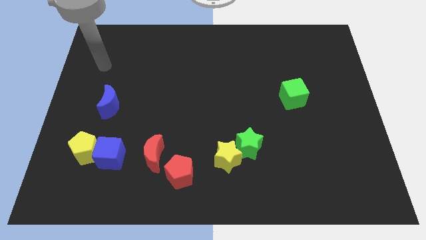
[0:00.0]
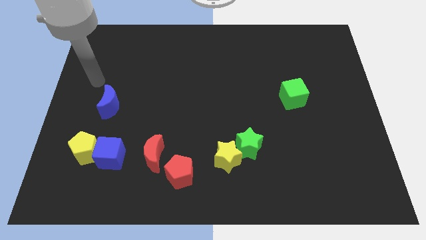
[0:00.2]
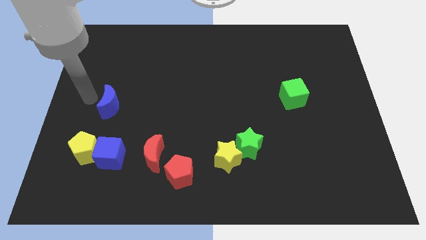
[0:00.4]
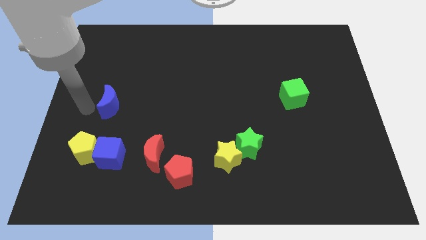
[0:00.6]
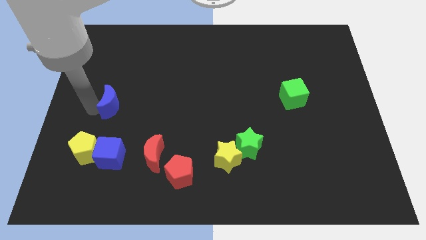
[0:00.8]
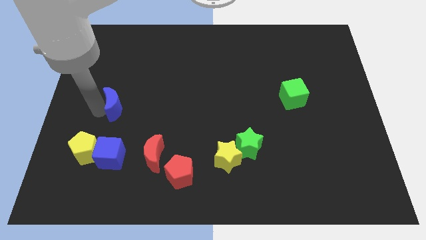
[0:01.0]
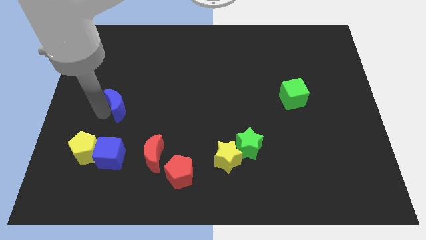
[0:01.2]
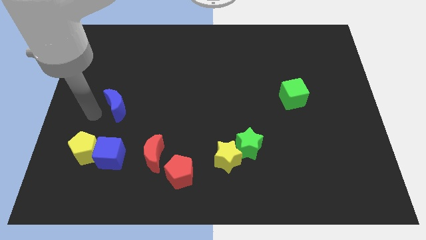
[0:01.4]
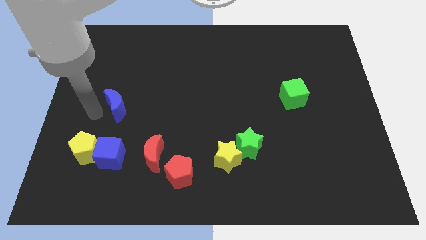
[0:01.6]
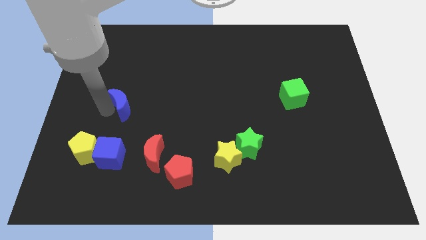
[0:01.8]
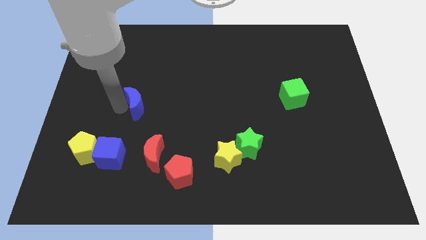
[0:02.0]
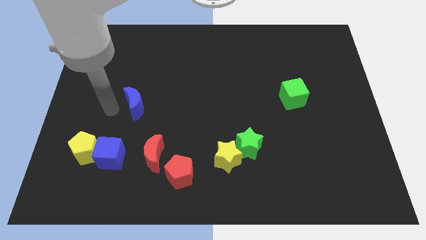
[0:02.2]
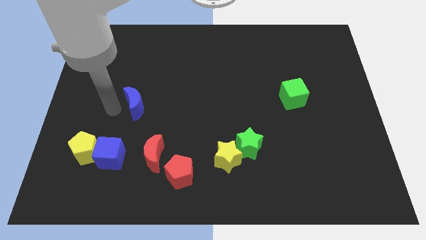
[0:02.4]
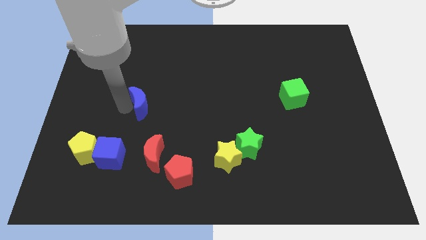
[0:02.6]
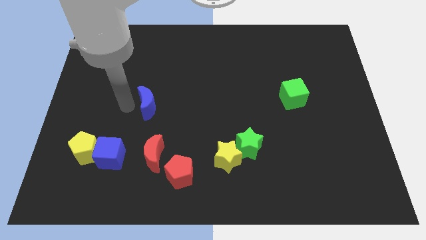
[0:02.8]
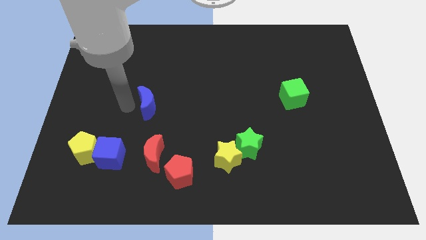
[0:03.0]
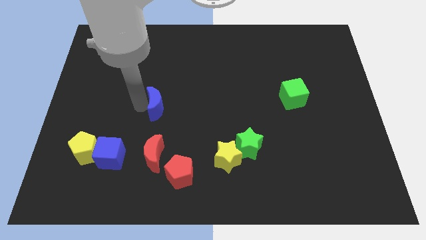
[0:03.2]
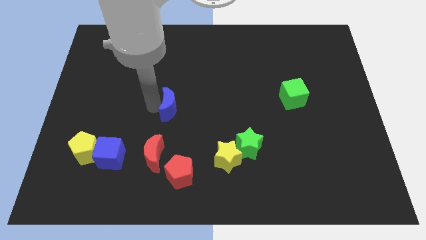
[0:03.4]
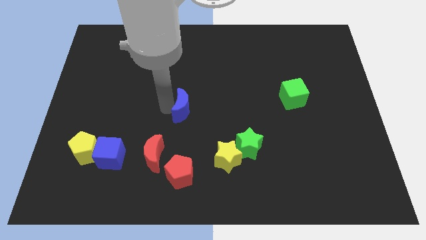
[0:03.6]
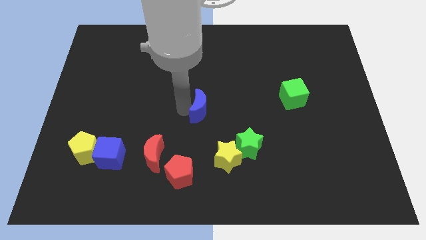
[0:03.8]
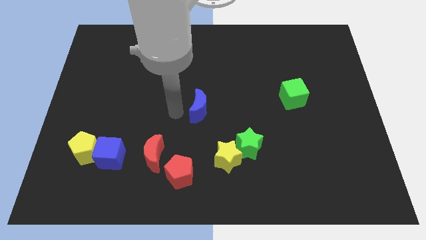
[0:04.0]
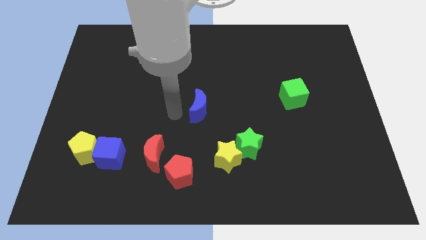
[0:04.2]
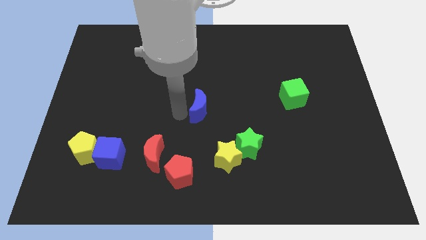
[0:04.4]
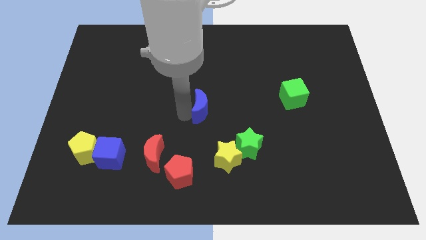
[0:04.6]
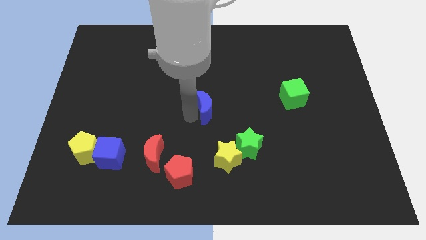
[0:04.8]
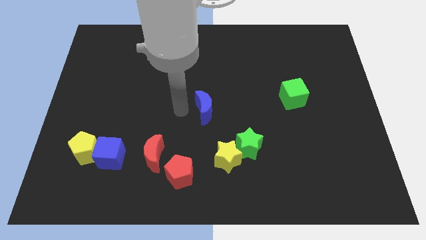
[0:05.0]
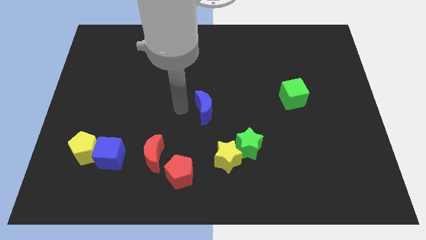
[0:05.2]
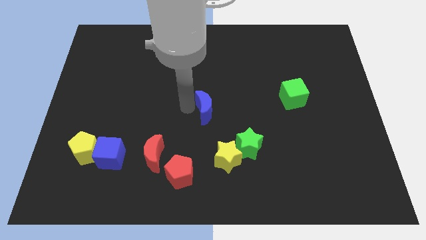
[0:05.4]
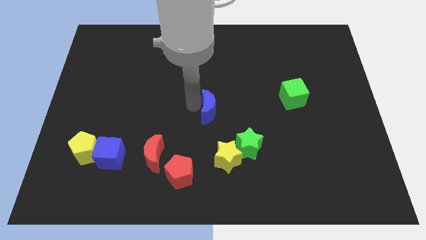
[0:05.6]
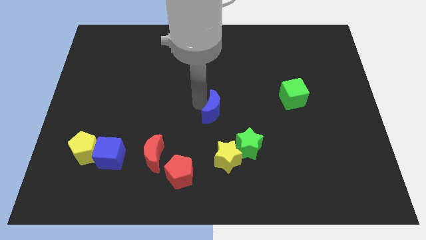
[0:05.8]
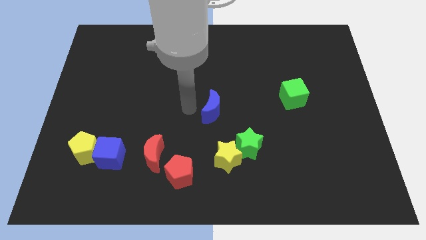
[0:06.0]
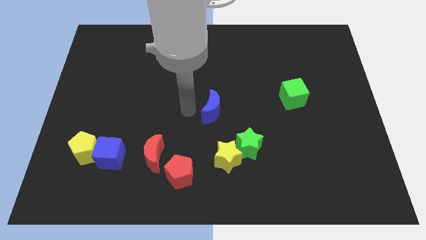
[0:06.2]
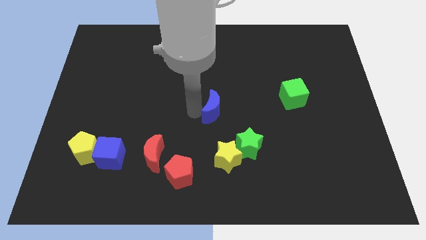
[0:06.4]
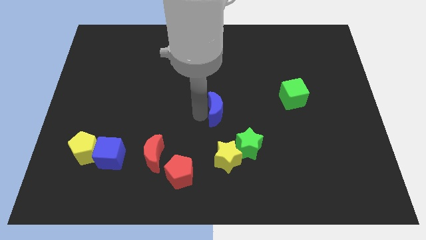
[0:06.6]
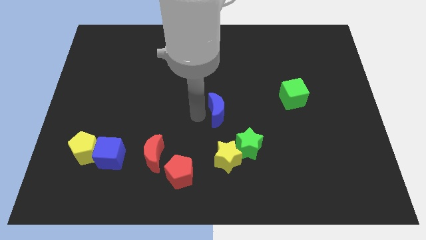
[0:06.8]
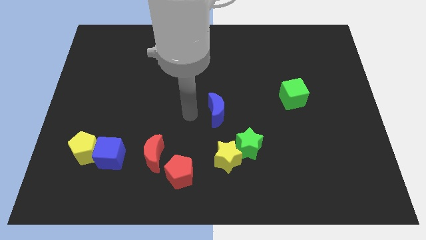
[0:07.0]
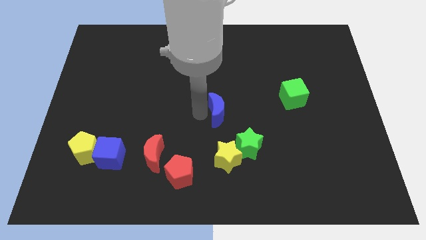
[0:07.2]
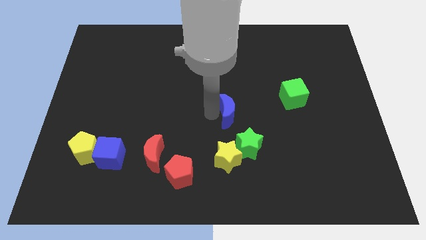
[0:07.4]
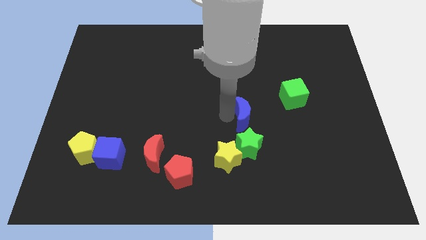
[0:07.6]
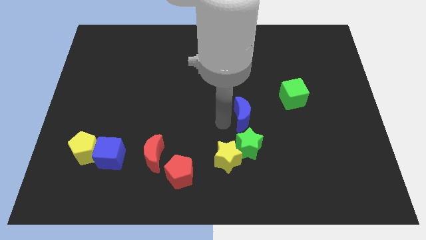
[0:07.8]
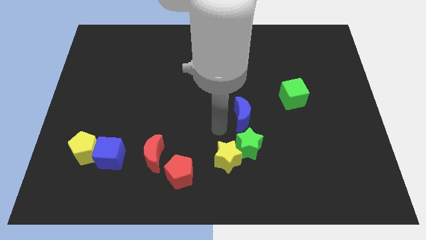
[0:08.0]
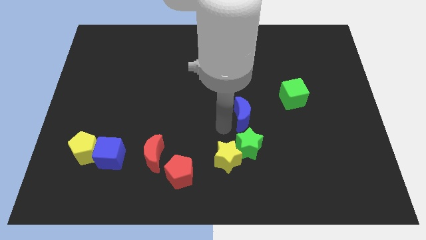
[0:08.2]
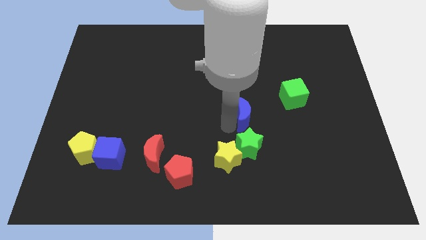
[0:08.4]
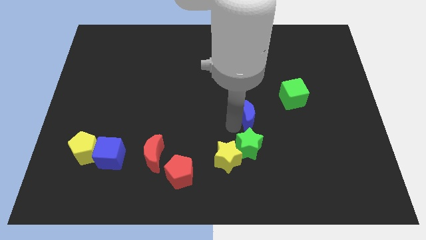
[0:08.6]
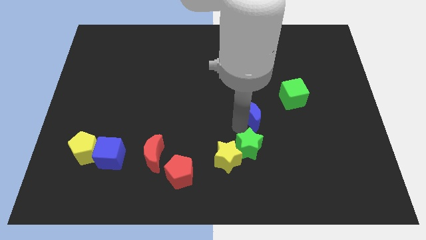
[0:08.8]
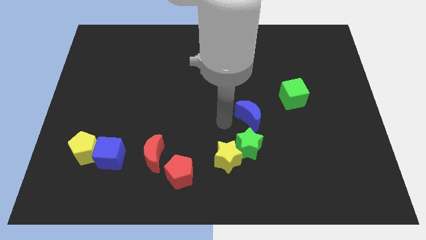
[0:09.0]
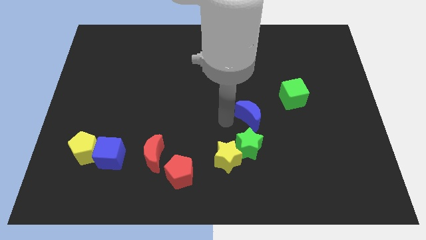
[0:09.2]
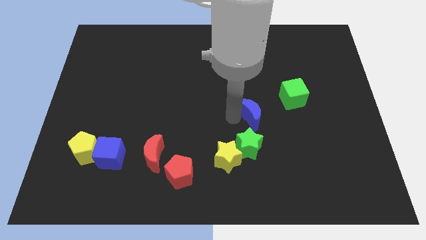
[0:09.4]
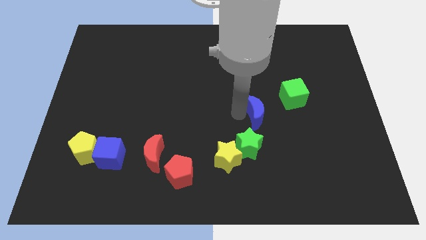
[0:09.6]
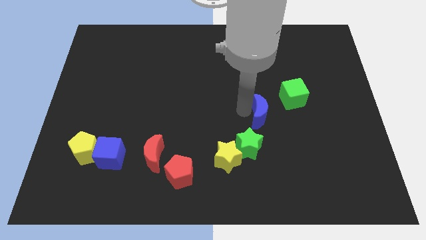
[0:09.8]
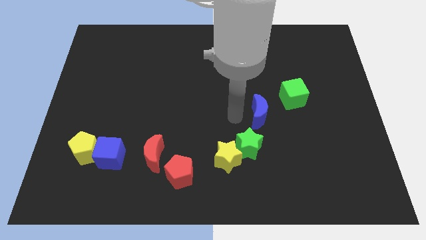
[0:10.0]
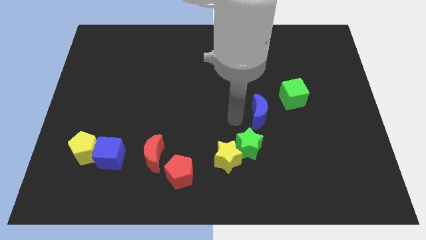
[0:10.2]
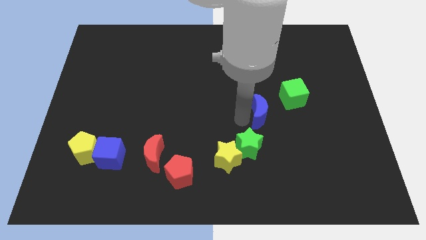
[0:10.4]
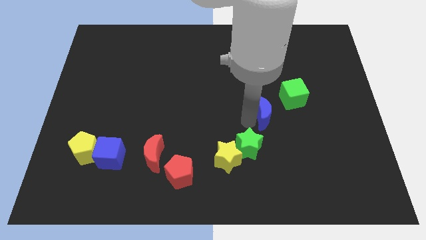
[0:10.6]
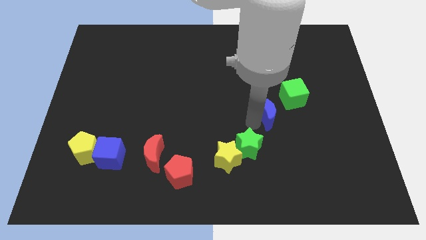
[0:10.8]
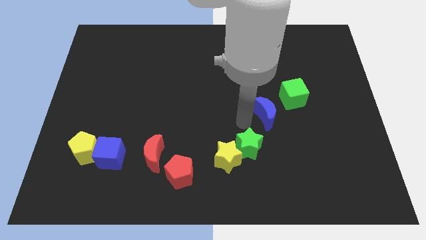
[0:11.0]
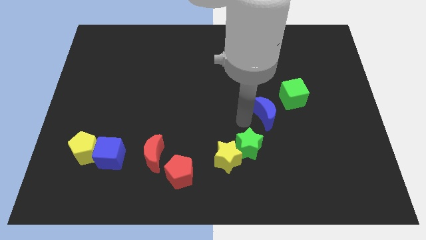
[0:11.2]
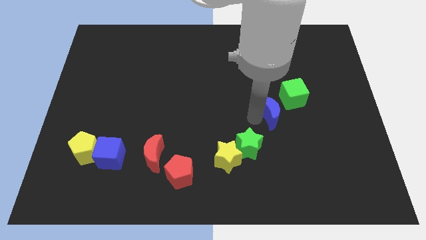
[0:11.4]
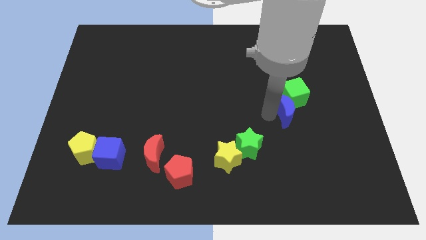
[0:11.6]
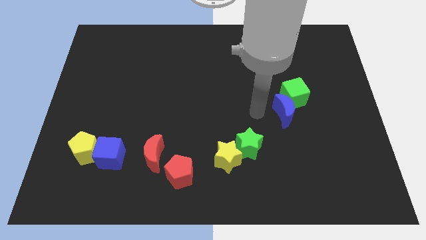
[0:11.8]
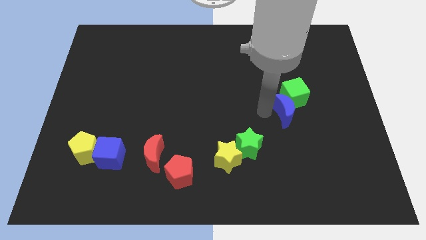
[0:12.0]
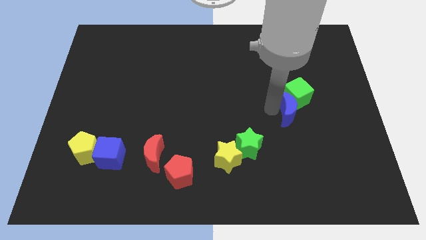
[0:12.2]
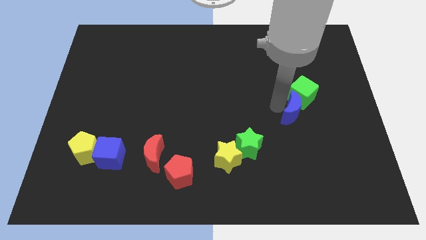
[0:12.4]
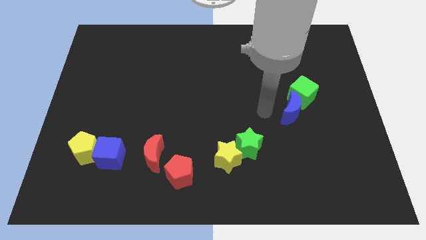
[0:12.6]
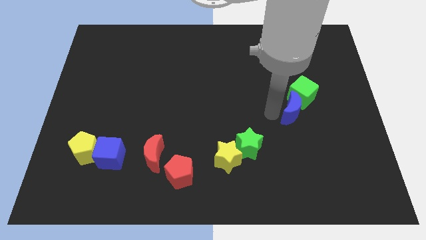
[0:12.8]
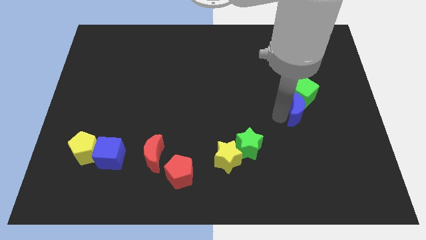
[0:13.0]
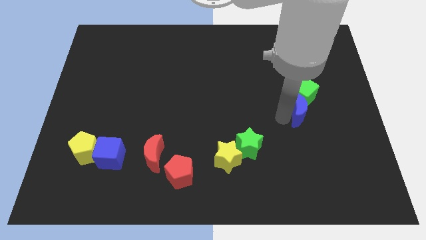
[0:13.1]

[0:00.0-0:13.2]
push the blue moon diagonally down and to the right of the green cube

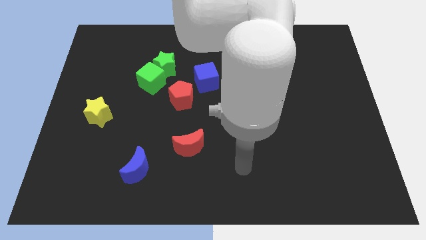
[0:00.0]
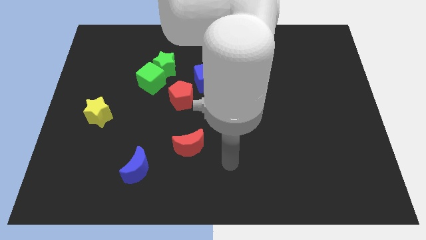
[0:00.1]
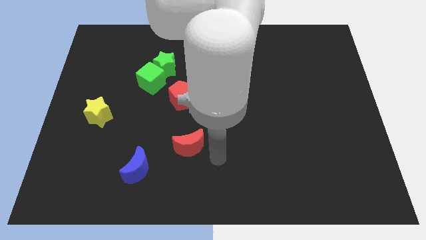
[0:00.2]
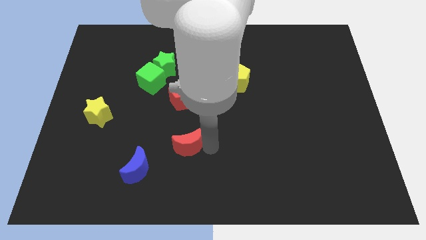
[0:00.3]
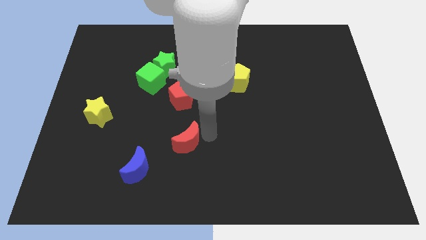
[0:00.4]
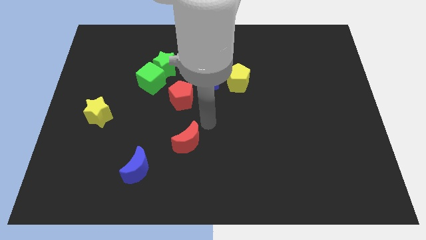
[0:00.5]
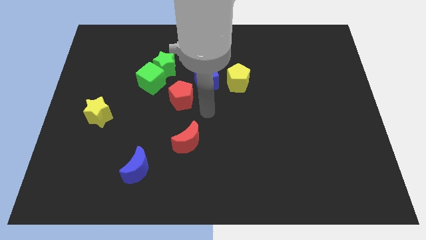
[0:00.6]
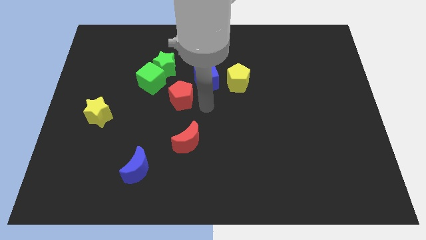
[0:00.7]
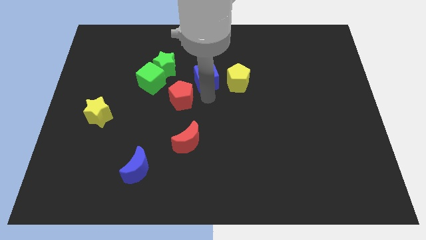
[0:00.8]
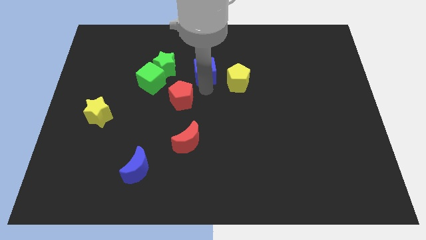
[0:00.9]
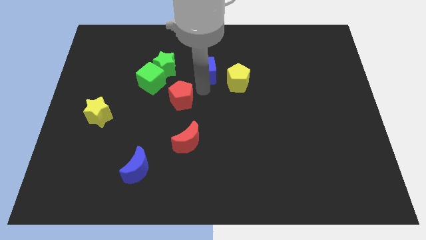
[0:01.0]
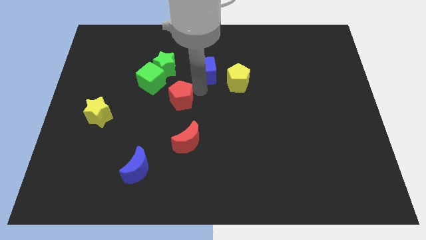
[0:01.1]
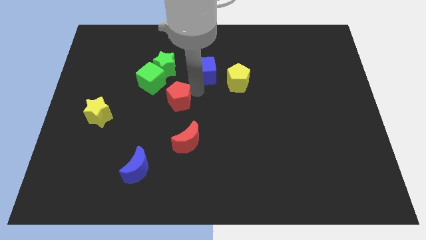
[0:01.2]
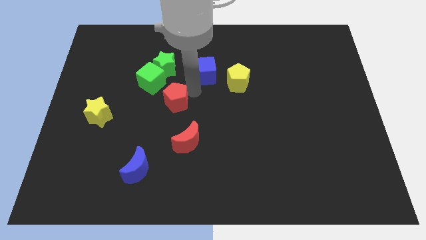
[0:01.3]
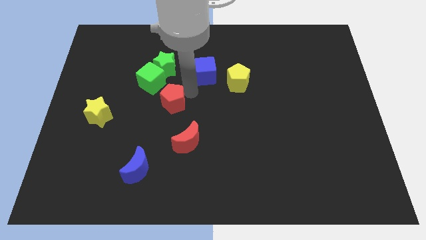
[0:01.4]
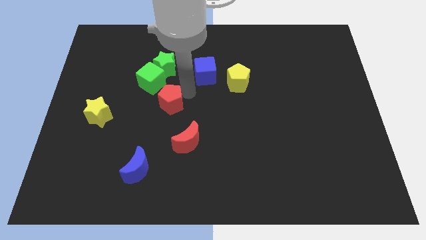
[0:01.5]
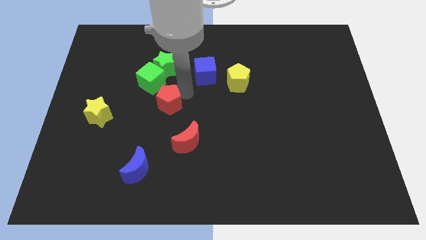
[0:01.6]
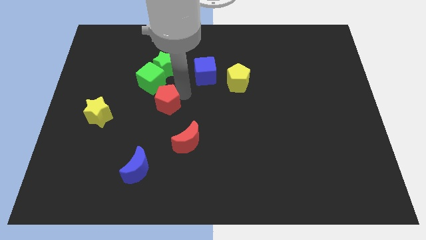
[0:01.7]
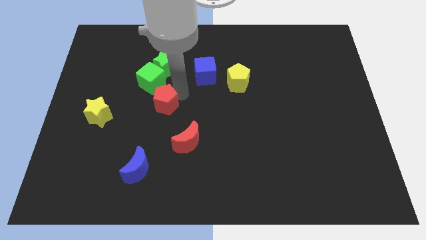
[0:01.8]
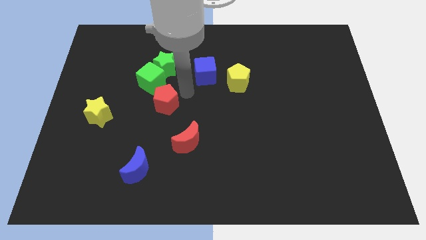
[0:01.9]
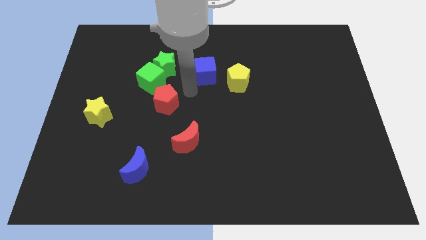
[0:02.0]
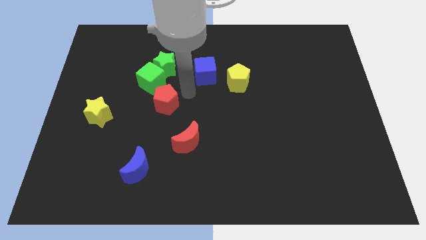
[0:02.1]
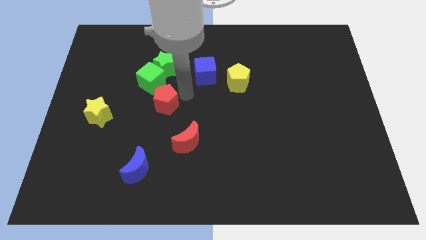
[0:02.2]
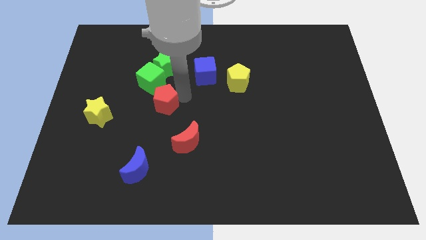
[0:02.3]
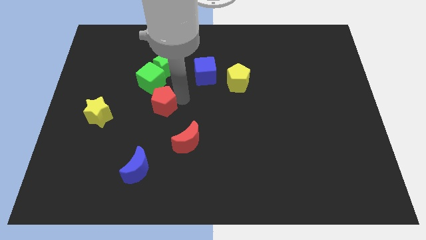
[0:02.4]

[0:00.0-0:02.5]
move the red pentagon to the right of the yellow star
